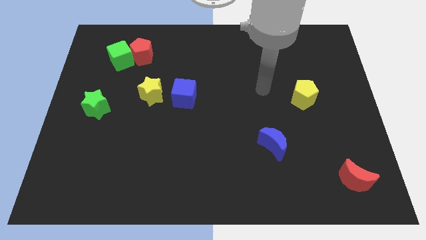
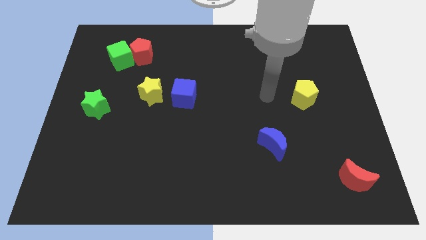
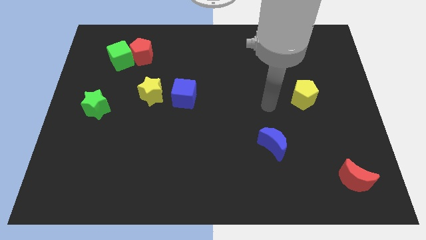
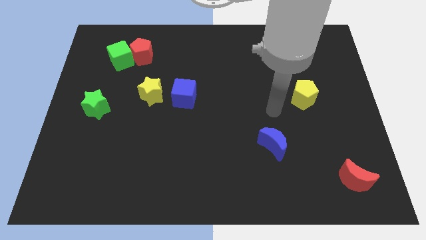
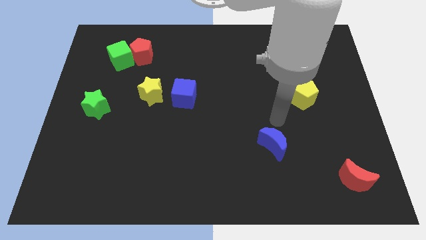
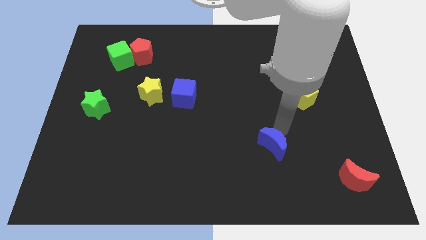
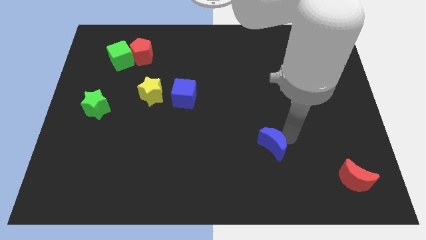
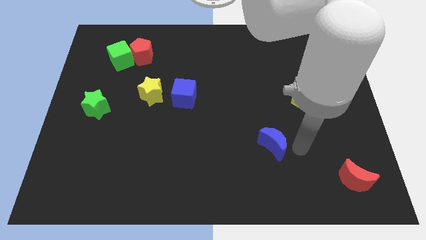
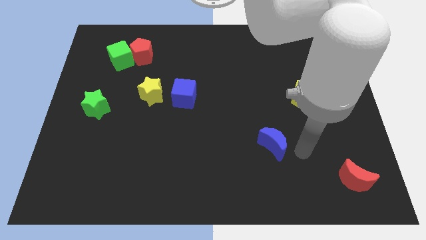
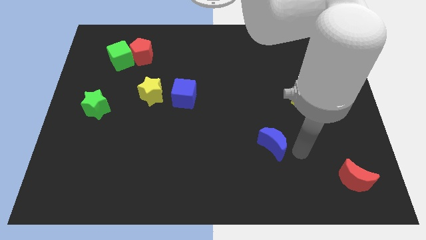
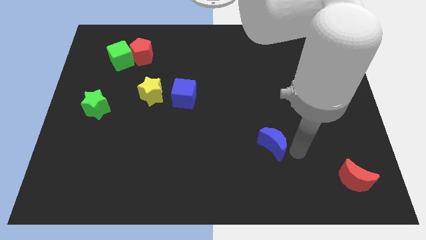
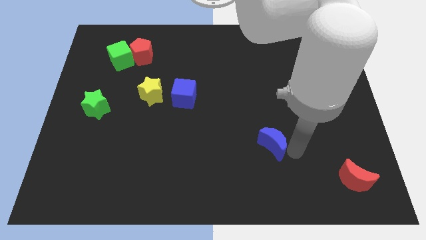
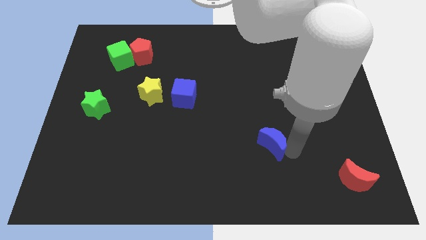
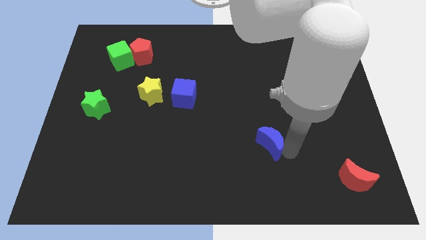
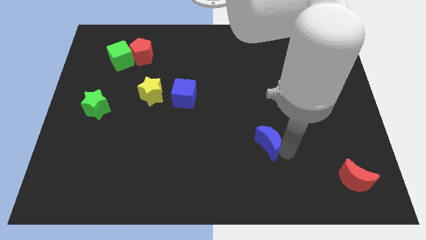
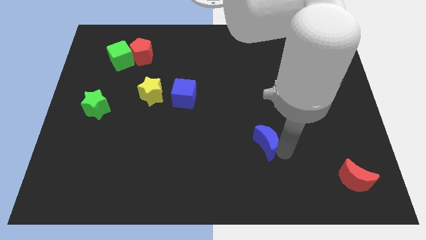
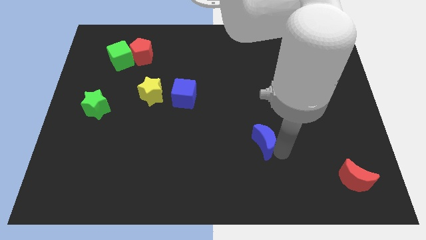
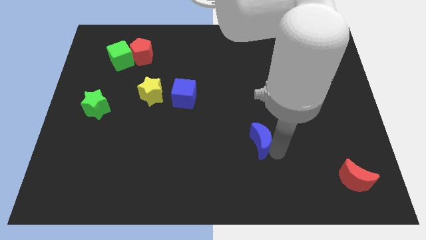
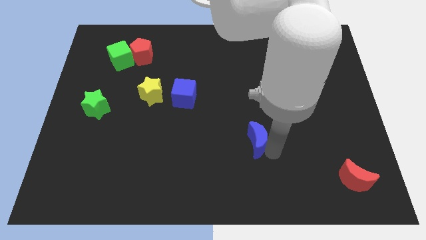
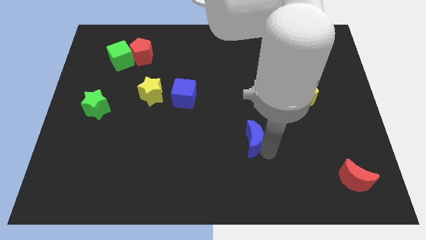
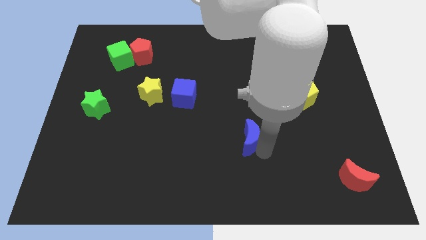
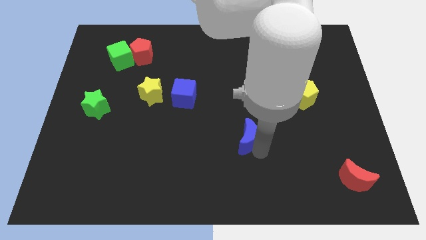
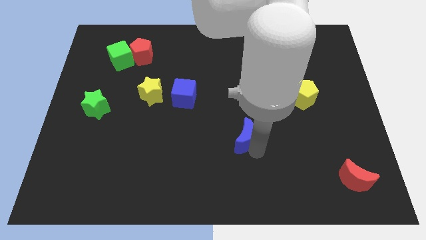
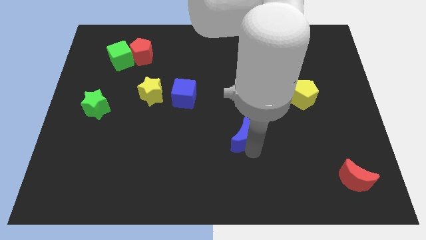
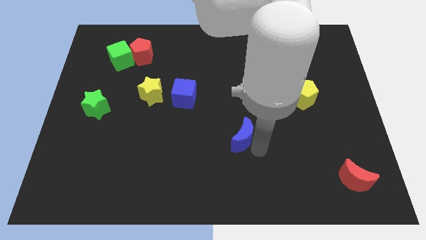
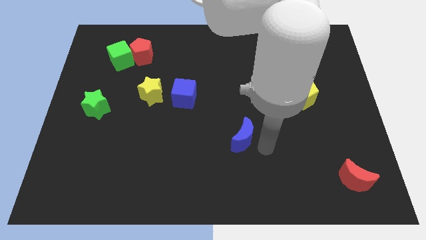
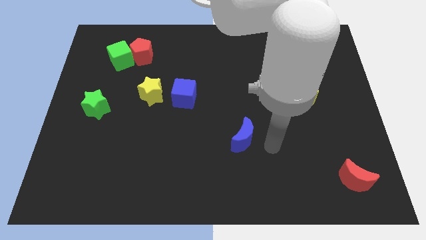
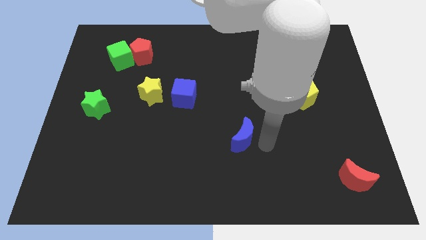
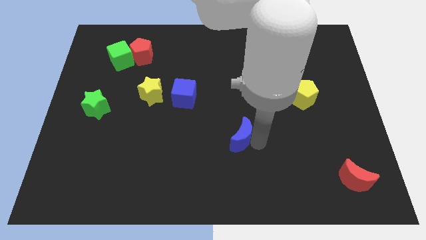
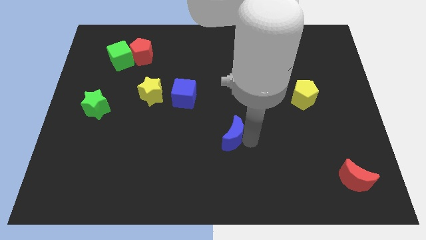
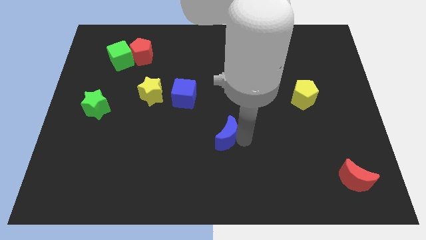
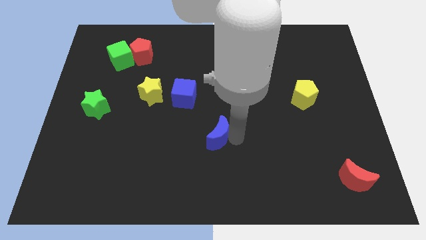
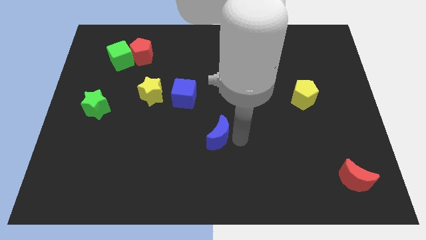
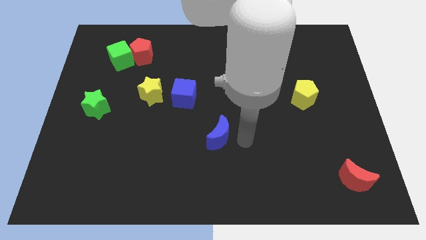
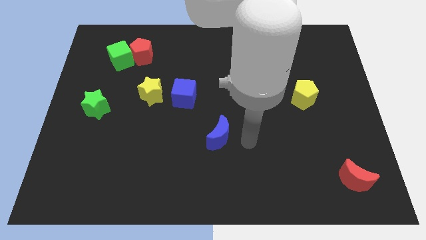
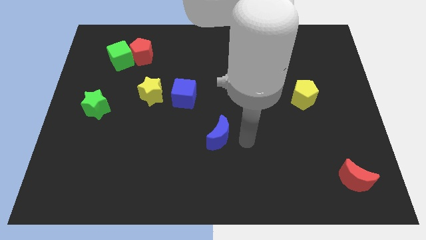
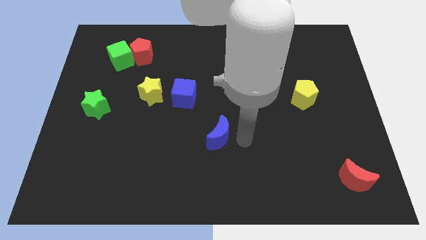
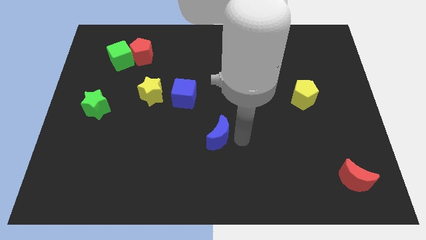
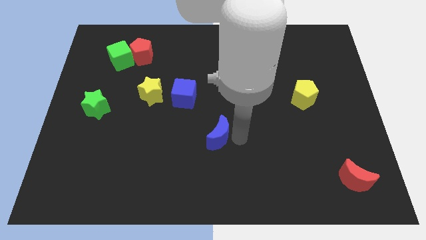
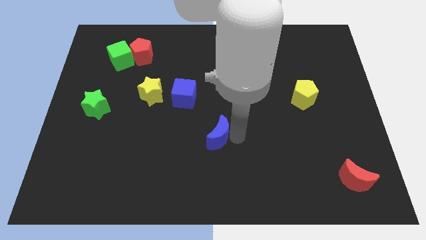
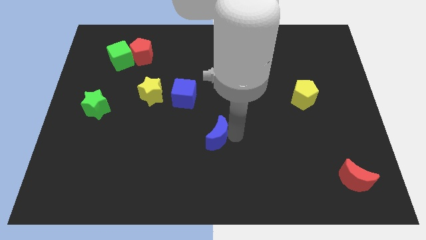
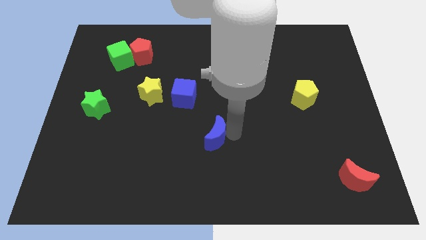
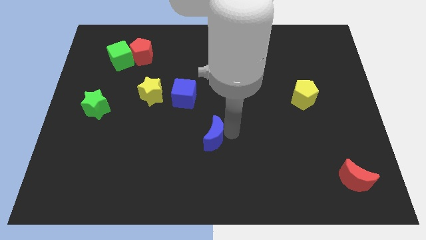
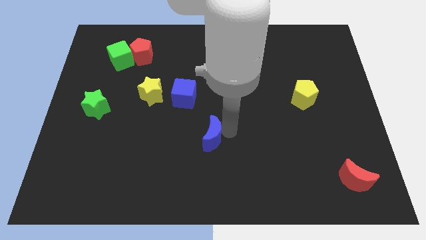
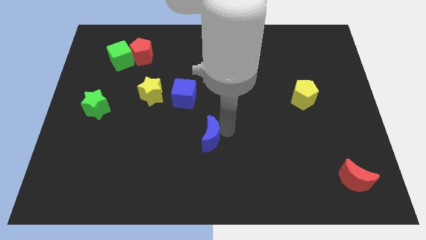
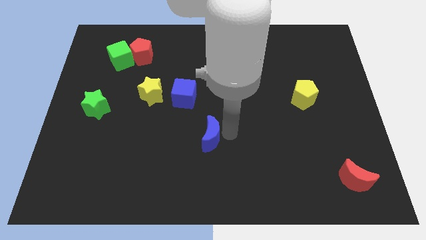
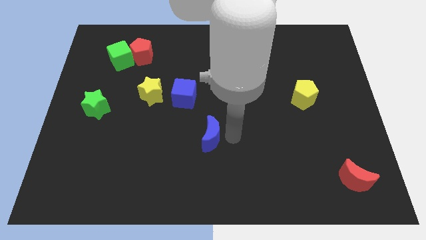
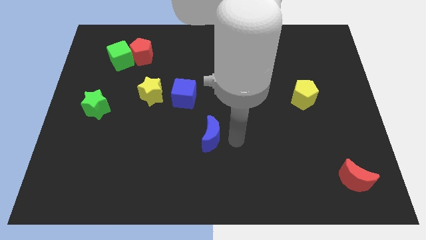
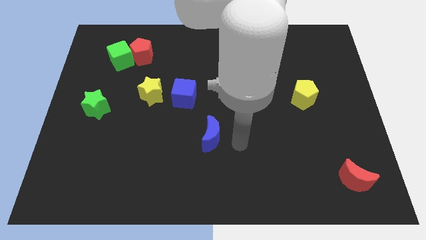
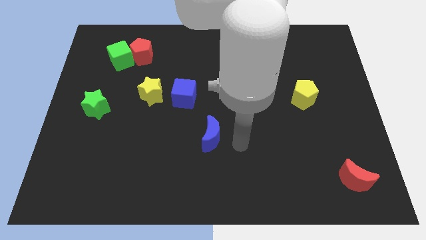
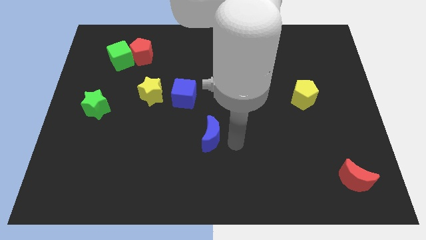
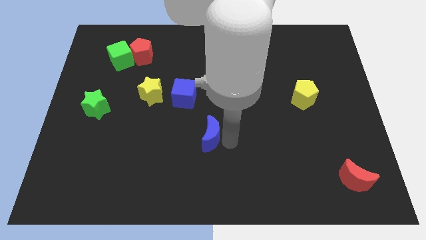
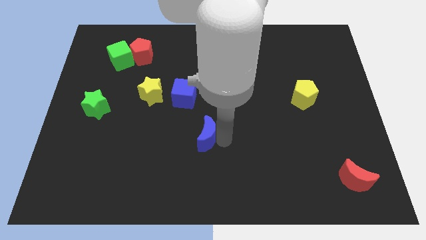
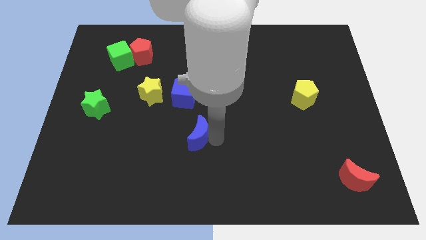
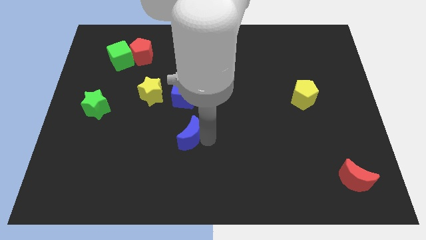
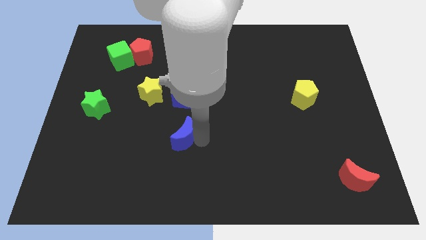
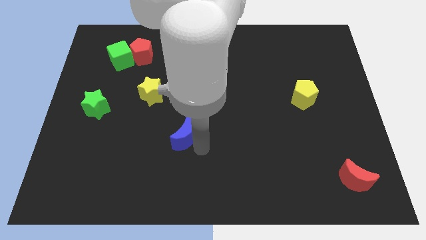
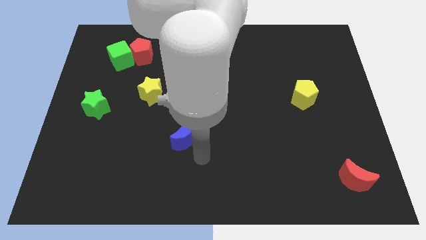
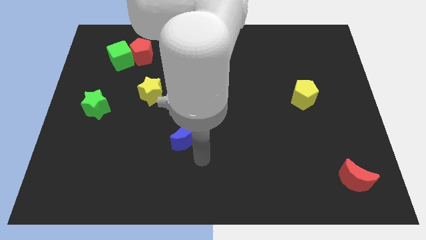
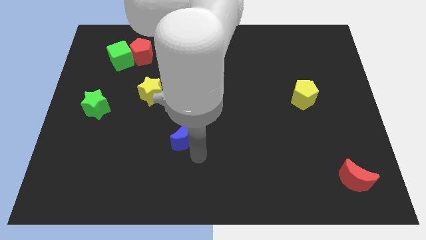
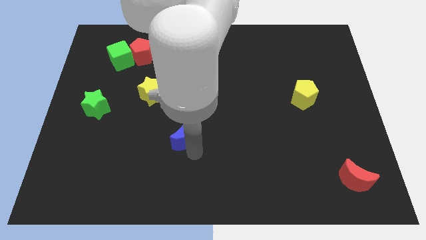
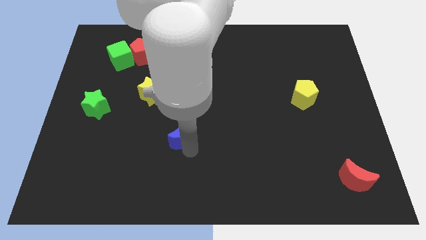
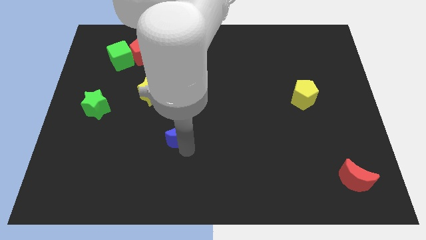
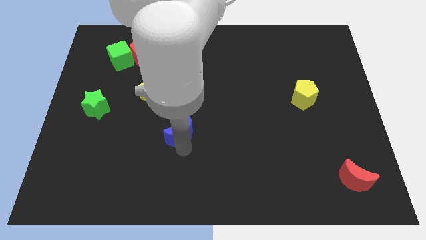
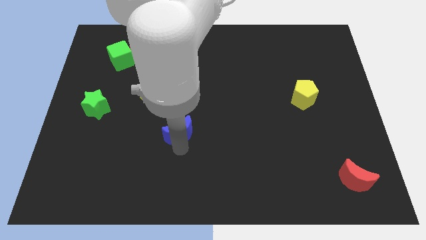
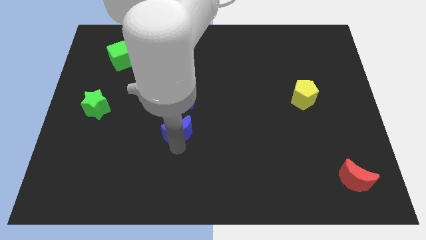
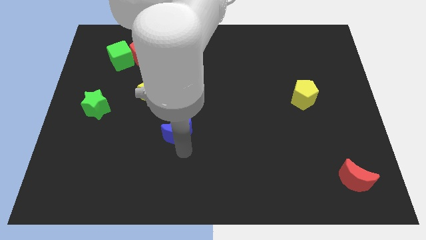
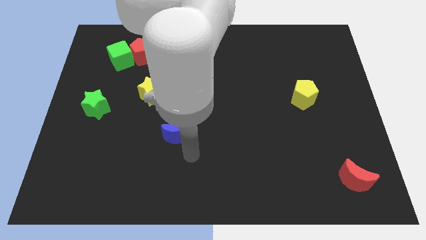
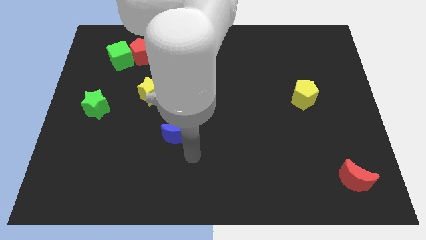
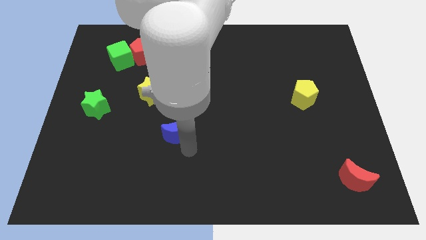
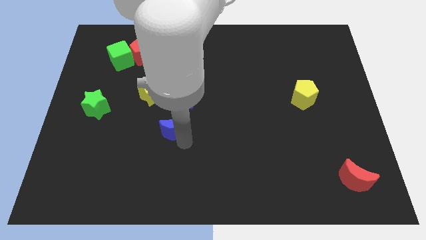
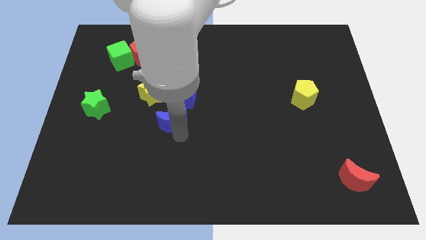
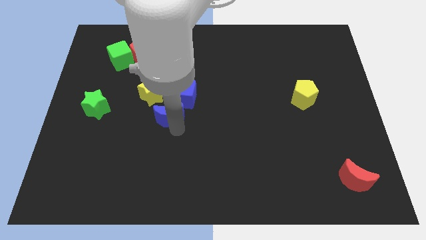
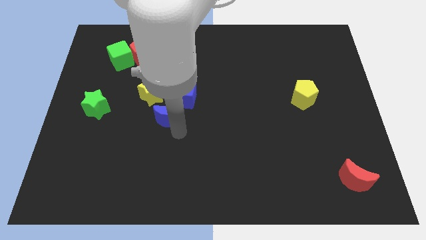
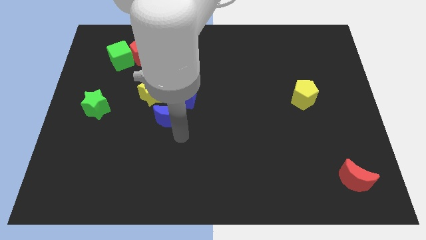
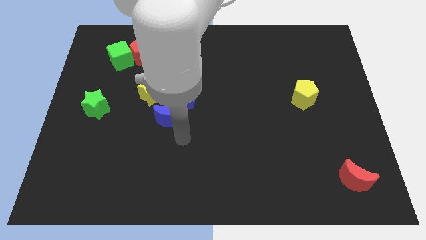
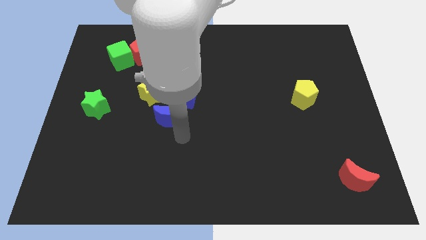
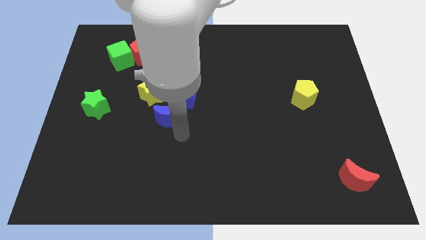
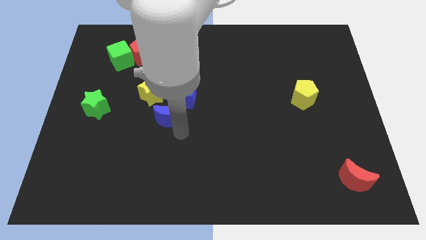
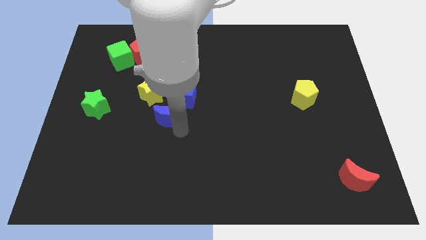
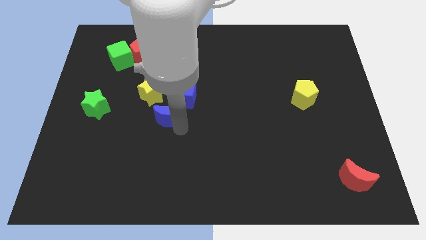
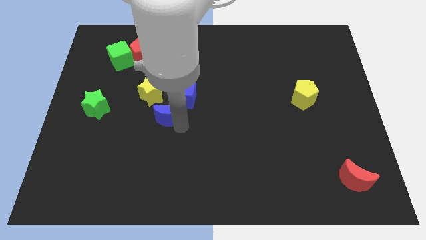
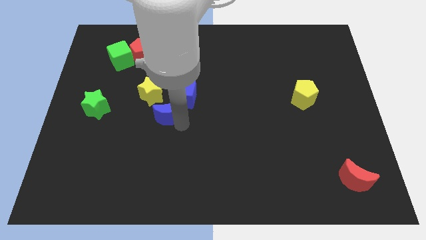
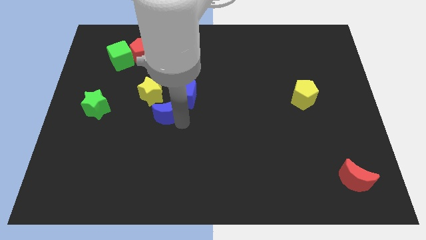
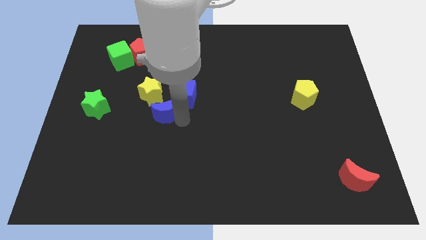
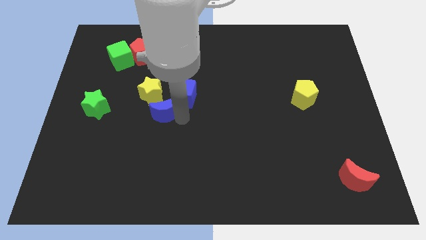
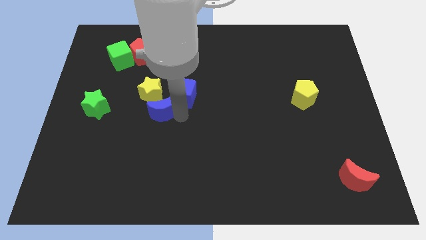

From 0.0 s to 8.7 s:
move the blue moon to the yellow star
